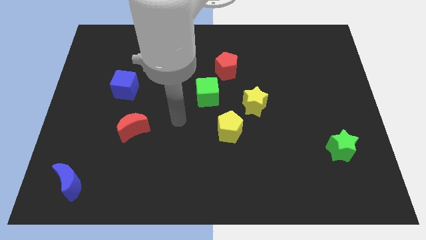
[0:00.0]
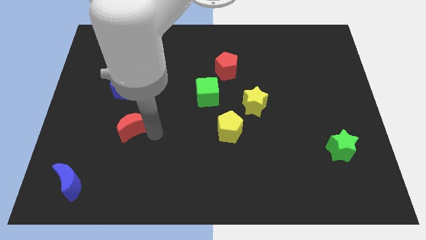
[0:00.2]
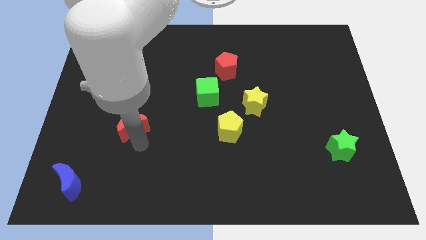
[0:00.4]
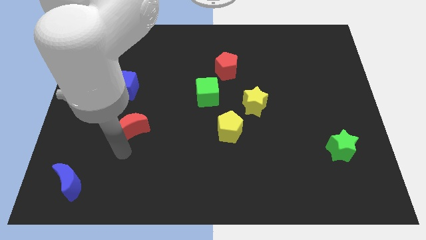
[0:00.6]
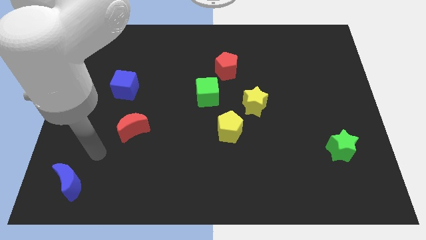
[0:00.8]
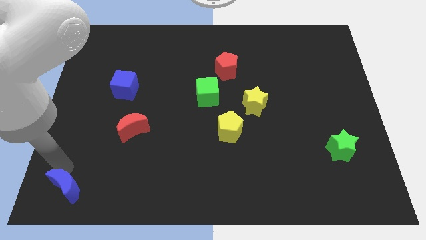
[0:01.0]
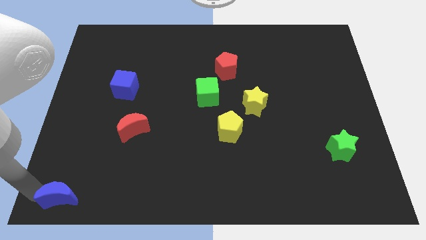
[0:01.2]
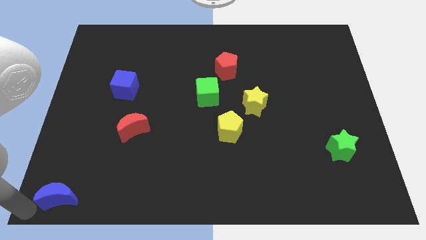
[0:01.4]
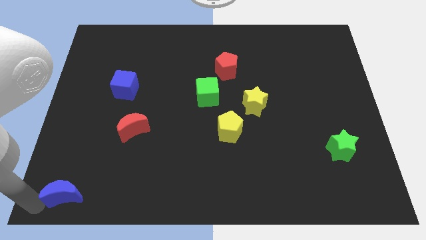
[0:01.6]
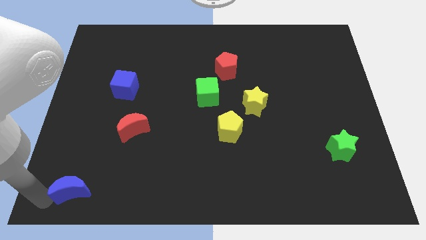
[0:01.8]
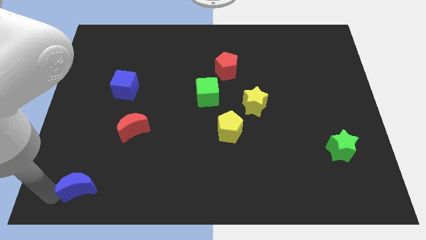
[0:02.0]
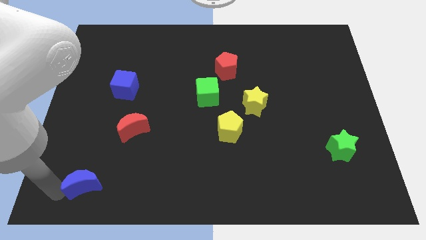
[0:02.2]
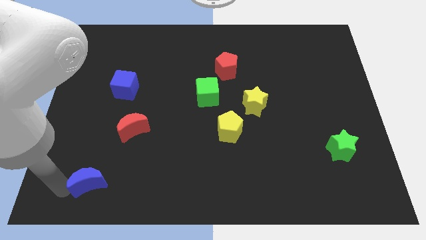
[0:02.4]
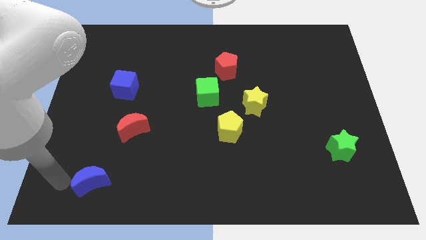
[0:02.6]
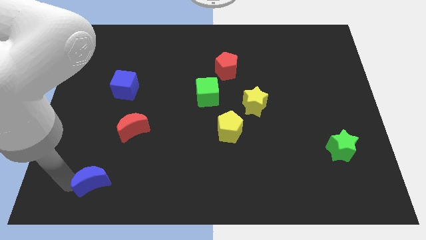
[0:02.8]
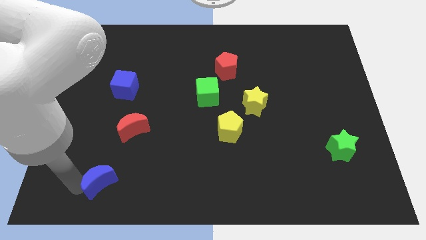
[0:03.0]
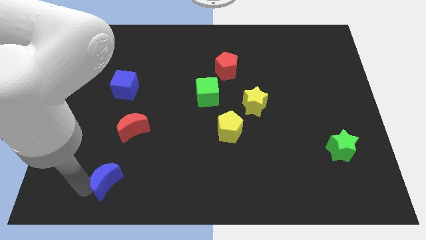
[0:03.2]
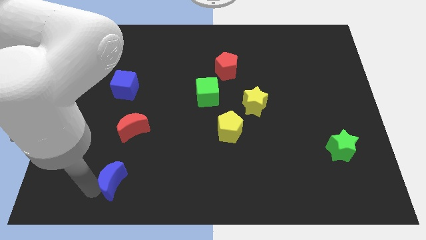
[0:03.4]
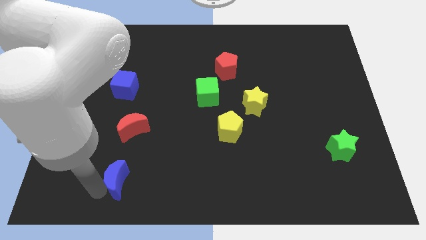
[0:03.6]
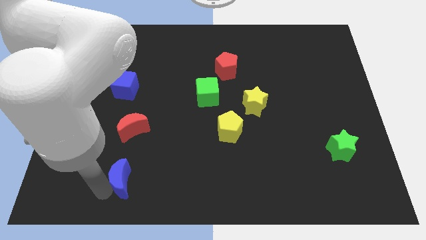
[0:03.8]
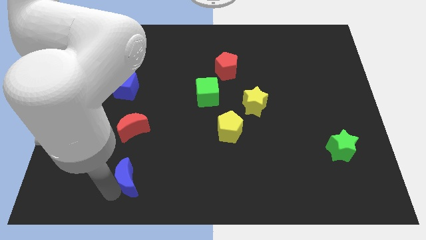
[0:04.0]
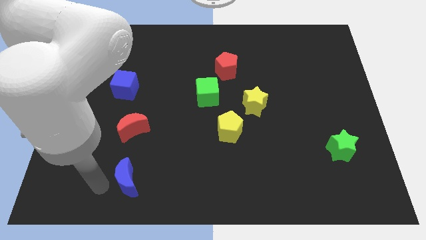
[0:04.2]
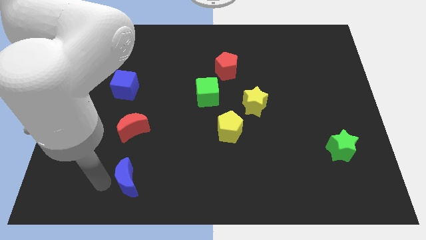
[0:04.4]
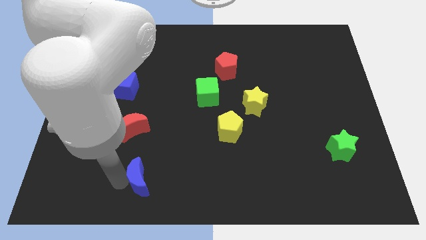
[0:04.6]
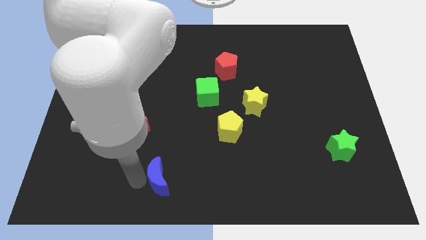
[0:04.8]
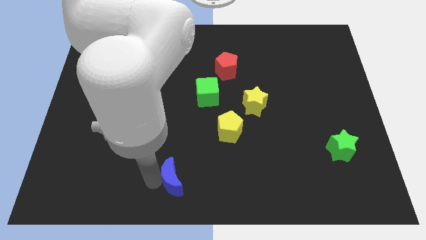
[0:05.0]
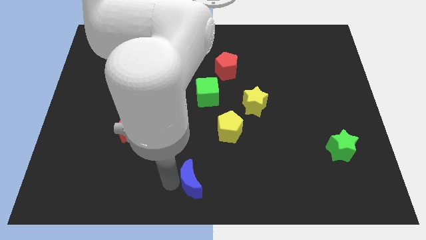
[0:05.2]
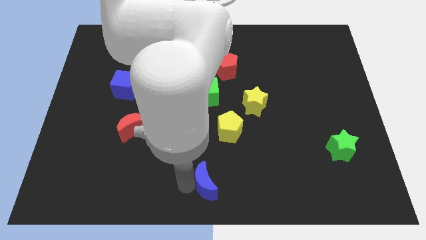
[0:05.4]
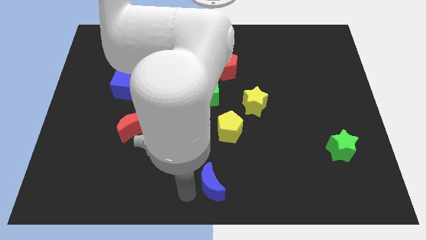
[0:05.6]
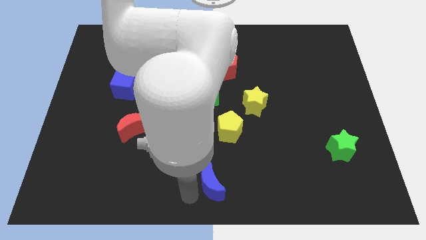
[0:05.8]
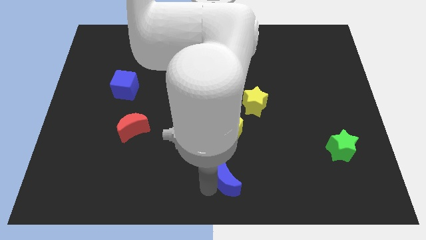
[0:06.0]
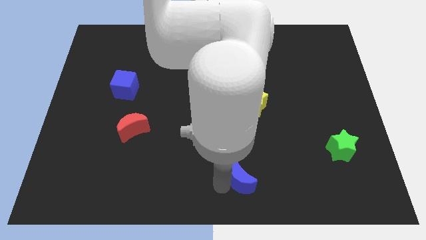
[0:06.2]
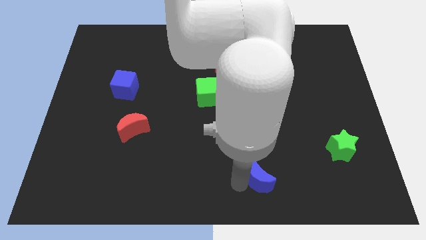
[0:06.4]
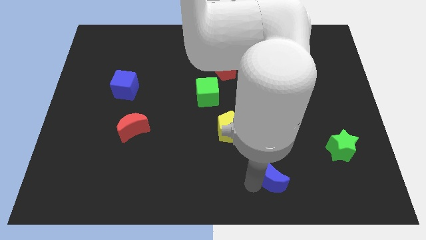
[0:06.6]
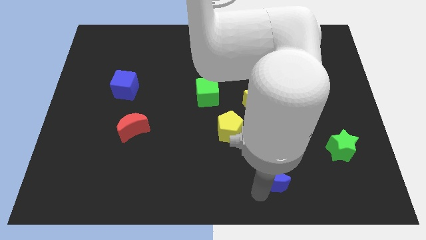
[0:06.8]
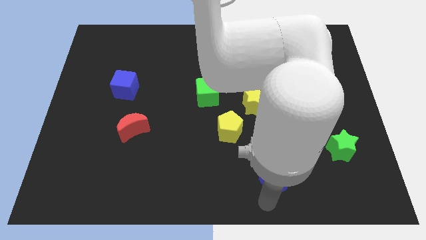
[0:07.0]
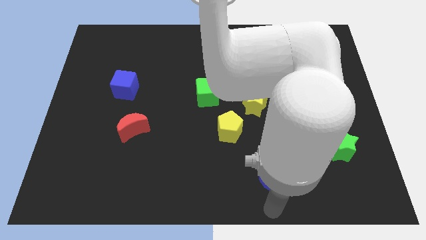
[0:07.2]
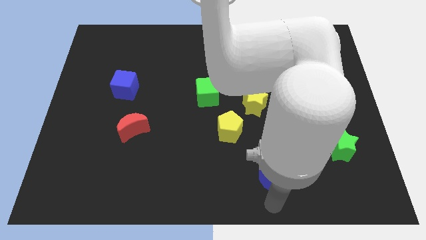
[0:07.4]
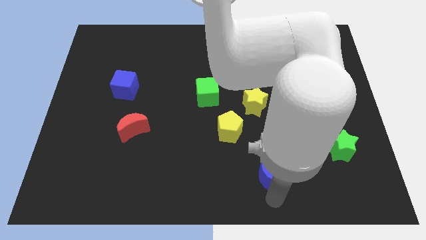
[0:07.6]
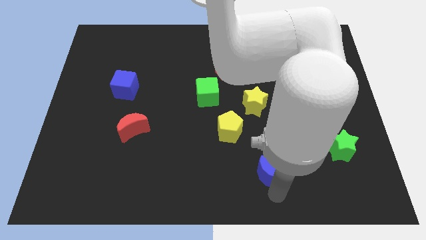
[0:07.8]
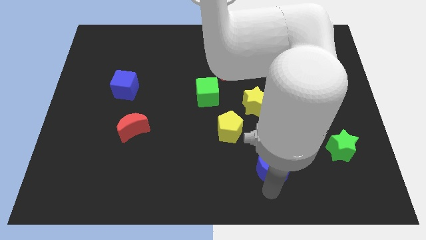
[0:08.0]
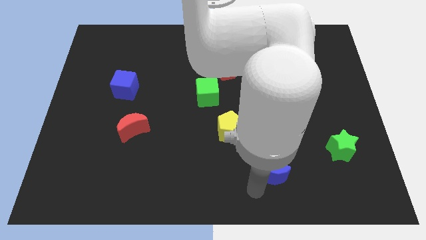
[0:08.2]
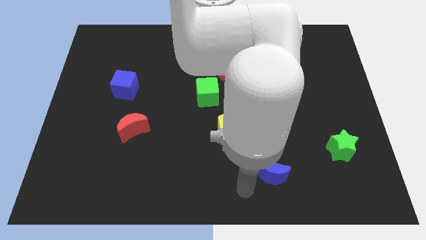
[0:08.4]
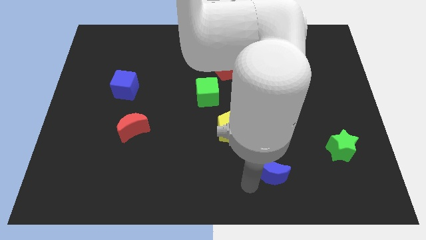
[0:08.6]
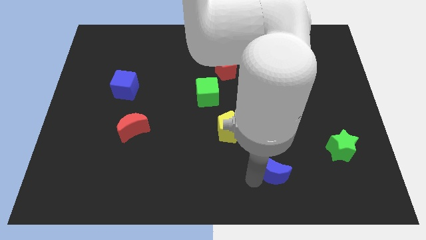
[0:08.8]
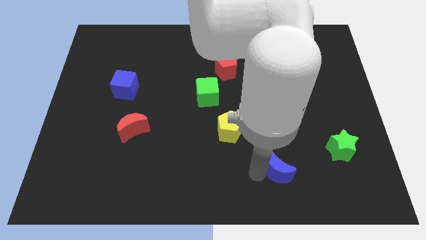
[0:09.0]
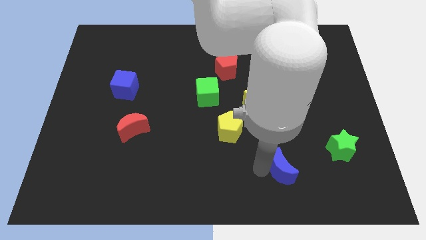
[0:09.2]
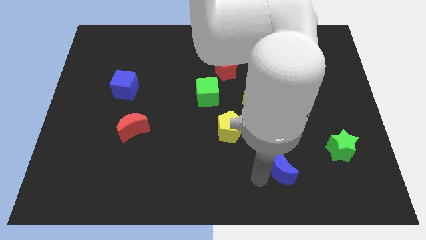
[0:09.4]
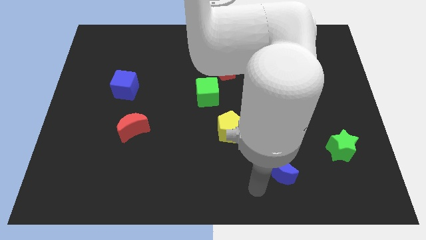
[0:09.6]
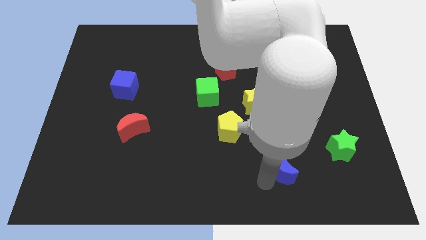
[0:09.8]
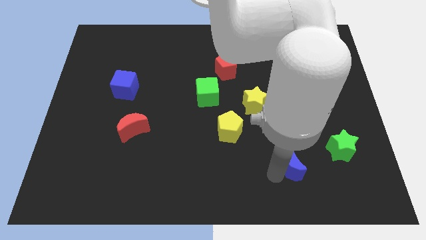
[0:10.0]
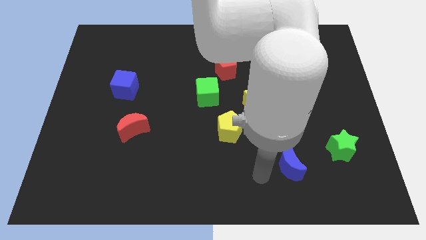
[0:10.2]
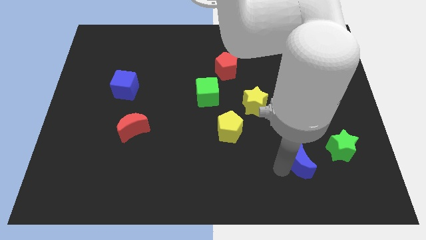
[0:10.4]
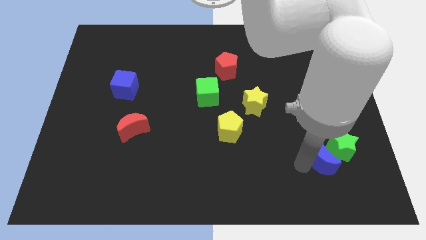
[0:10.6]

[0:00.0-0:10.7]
slide the blue moon close to the green star

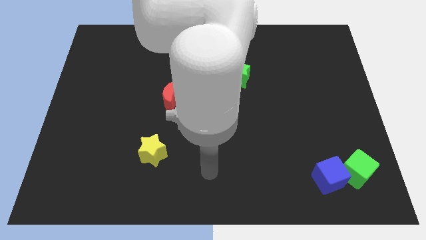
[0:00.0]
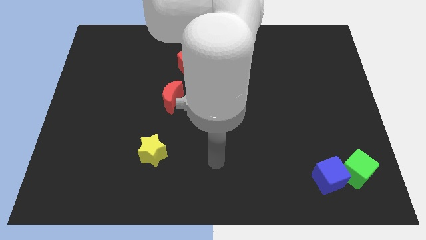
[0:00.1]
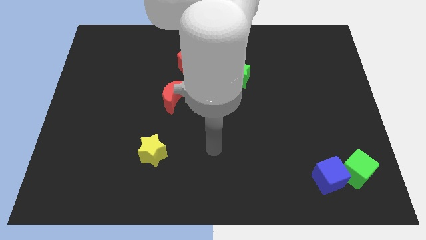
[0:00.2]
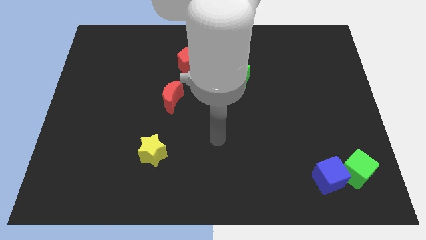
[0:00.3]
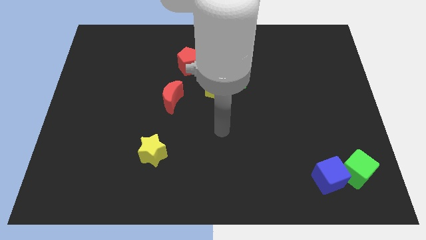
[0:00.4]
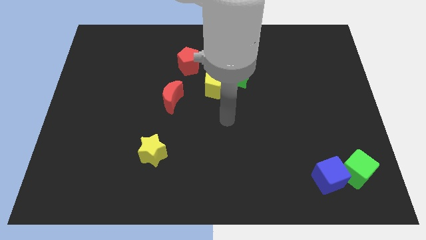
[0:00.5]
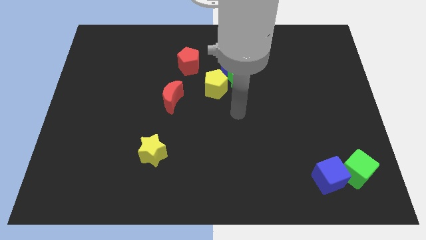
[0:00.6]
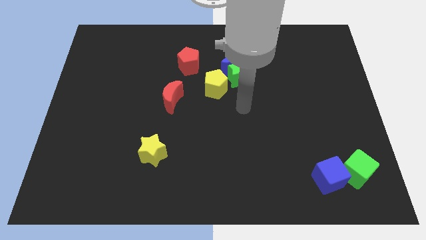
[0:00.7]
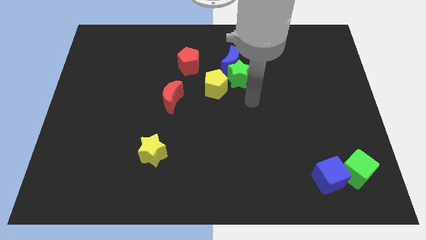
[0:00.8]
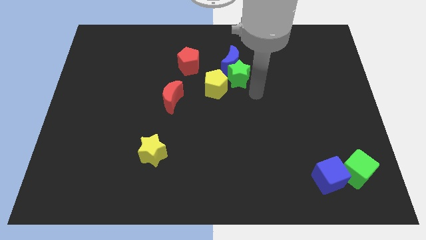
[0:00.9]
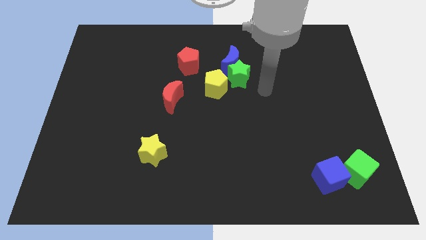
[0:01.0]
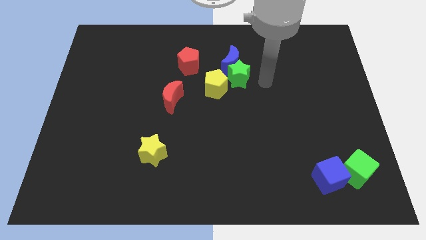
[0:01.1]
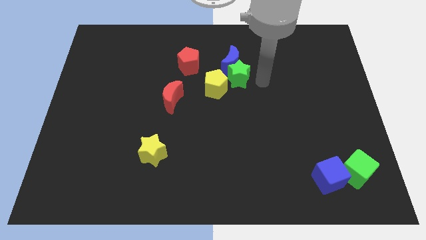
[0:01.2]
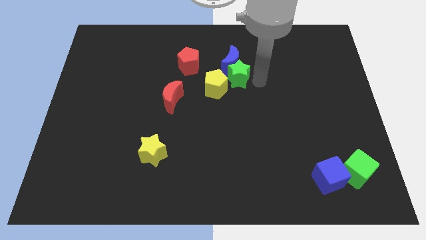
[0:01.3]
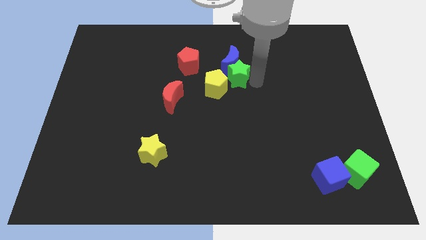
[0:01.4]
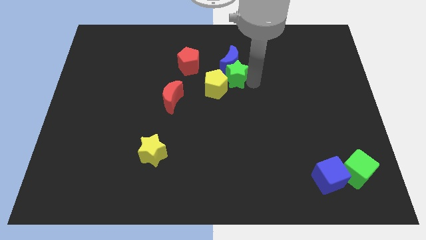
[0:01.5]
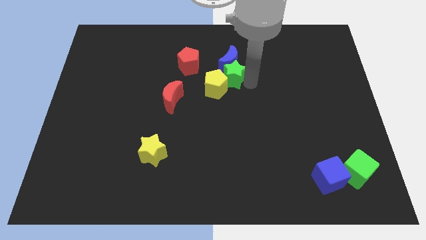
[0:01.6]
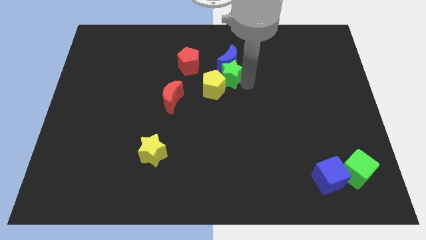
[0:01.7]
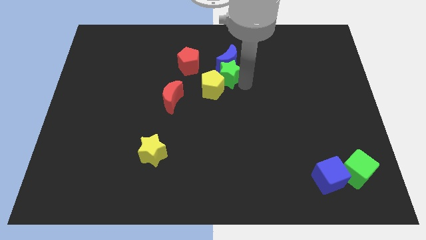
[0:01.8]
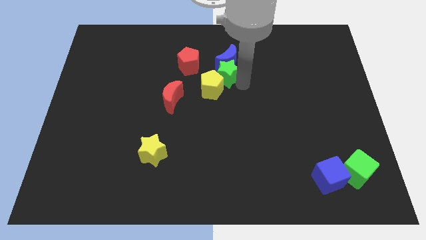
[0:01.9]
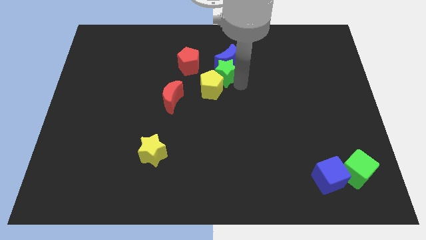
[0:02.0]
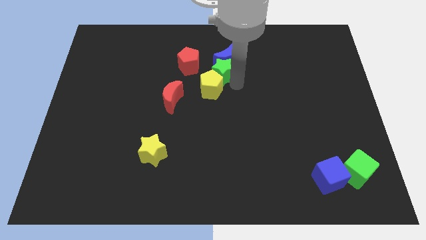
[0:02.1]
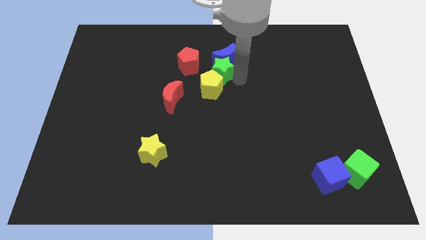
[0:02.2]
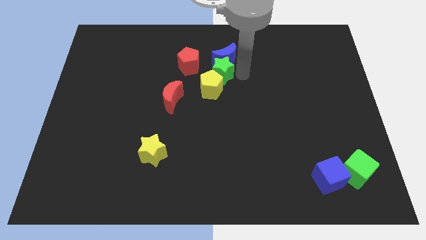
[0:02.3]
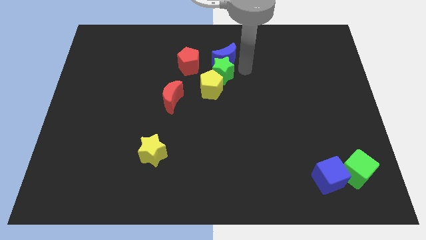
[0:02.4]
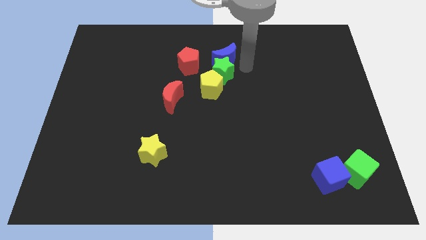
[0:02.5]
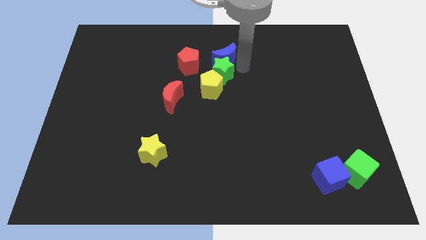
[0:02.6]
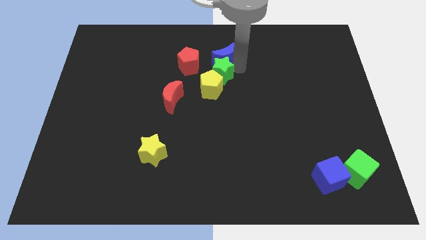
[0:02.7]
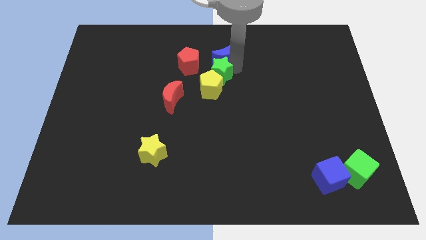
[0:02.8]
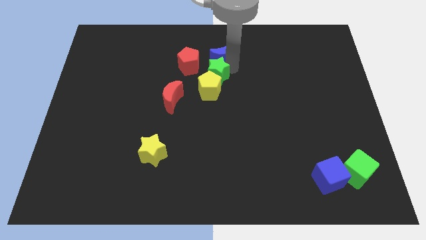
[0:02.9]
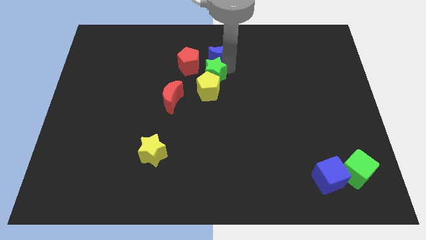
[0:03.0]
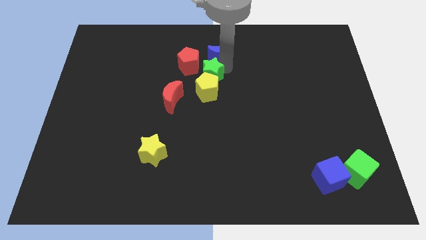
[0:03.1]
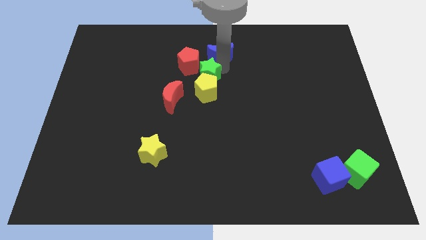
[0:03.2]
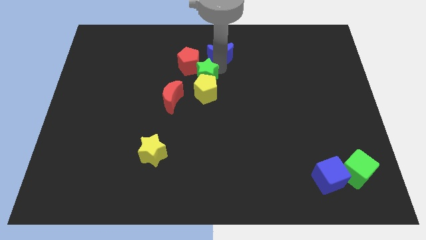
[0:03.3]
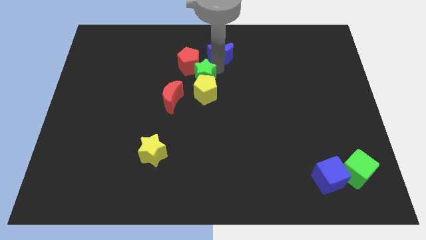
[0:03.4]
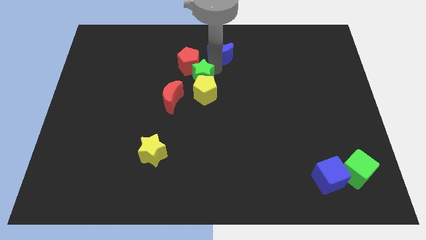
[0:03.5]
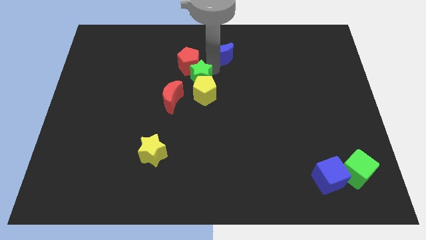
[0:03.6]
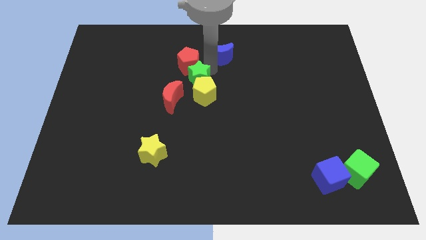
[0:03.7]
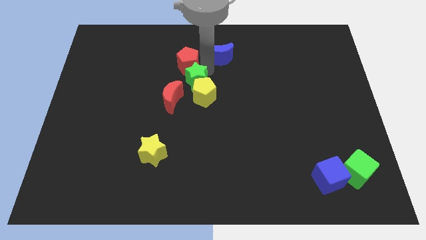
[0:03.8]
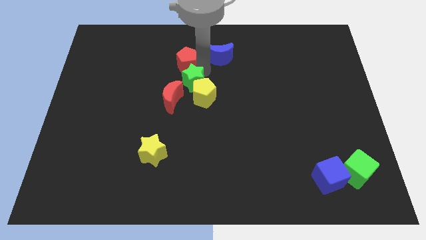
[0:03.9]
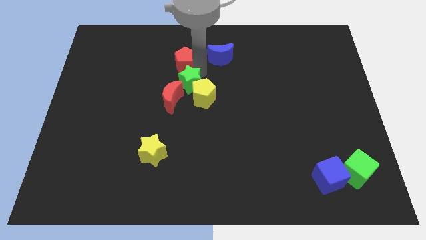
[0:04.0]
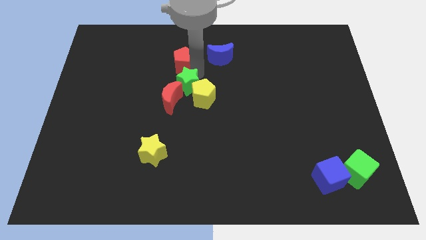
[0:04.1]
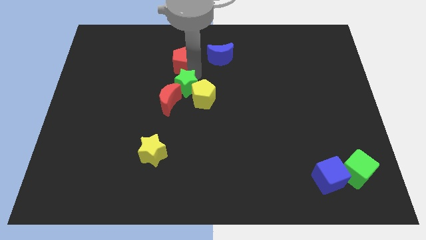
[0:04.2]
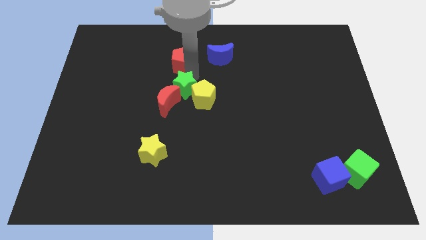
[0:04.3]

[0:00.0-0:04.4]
put the green star close to the red moon
